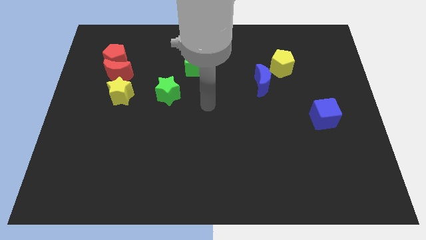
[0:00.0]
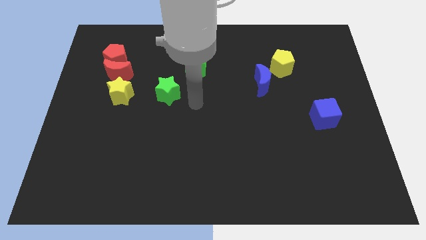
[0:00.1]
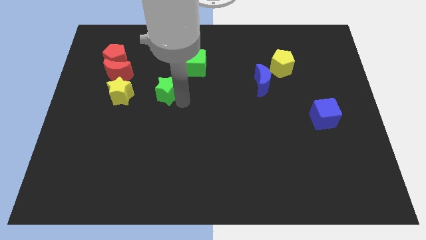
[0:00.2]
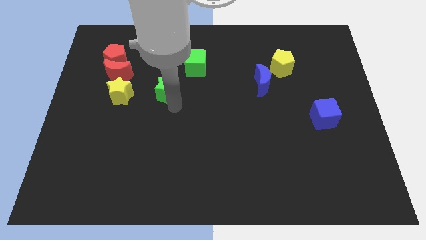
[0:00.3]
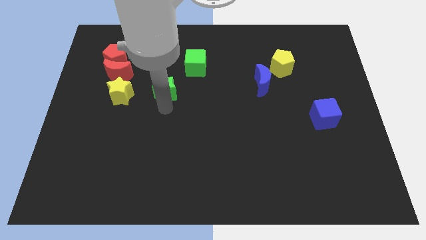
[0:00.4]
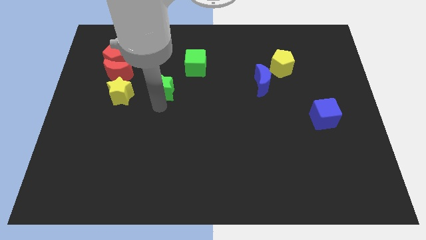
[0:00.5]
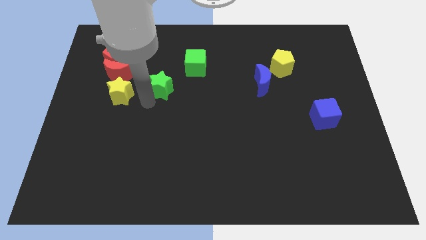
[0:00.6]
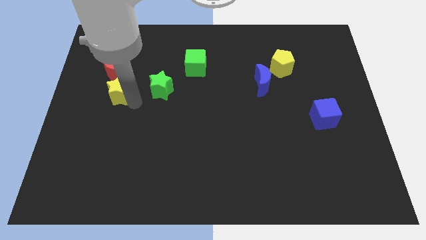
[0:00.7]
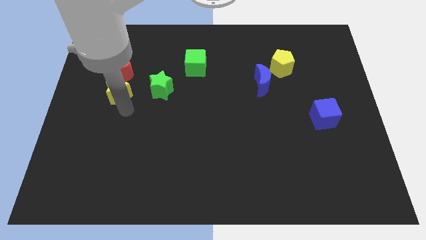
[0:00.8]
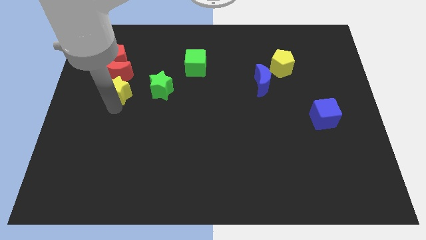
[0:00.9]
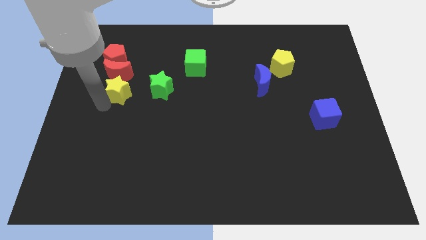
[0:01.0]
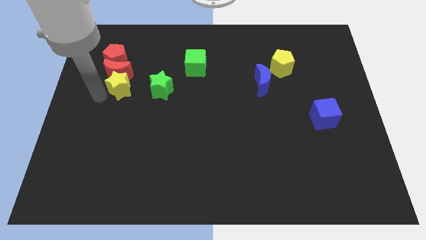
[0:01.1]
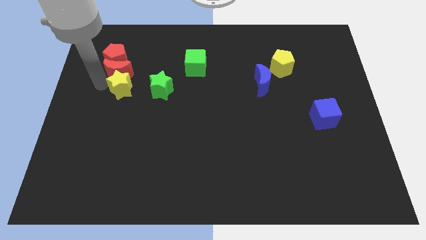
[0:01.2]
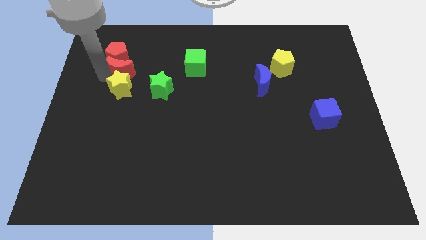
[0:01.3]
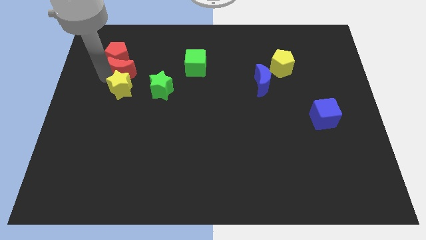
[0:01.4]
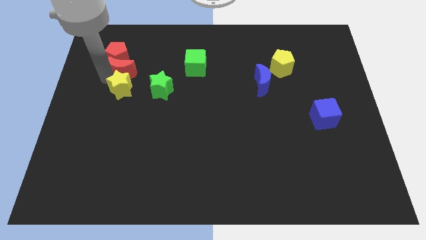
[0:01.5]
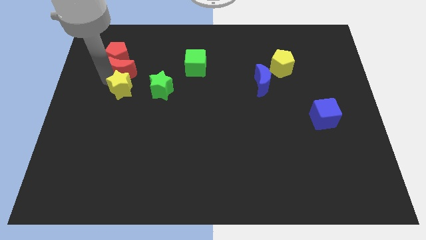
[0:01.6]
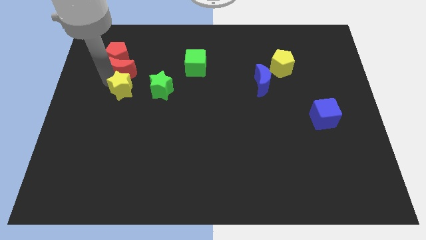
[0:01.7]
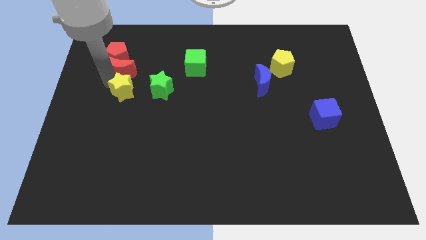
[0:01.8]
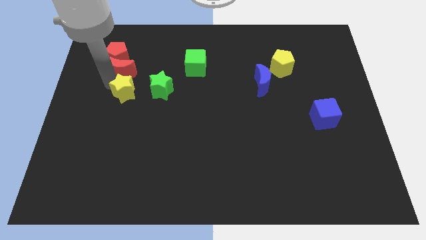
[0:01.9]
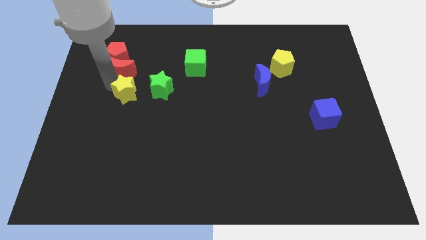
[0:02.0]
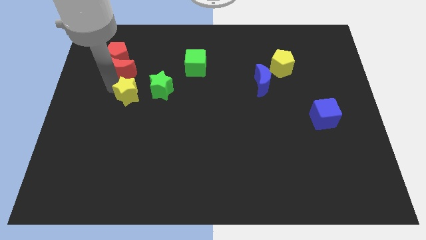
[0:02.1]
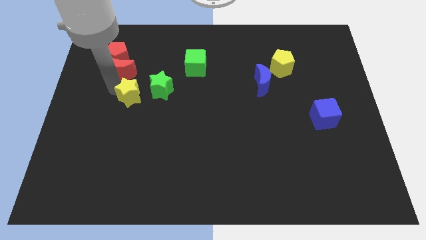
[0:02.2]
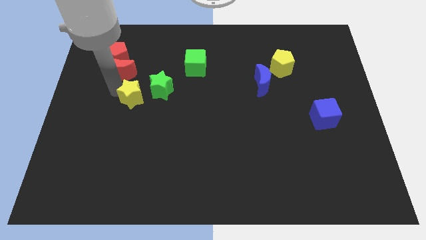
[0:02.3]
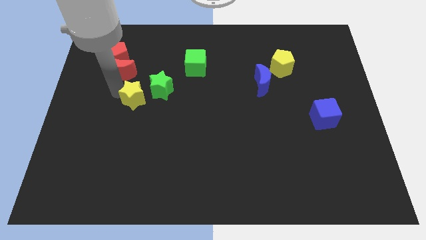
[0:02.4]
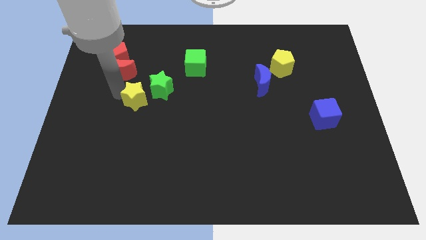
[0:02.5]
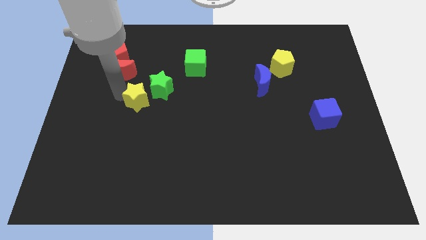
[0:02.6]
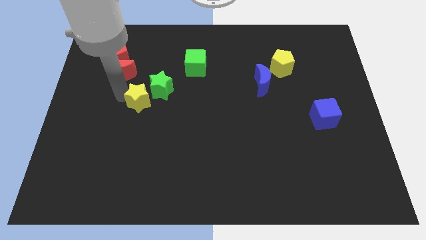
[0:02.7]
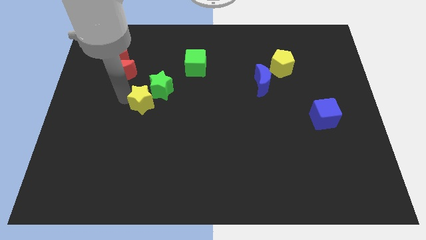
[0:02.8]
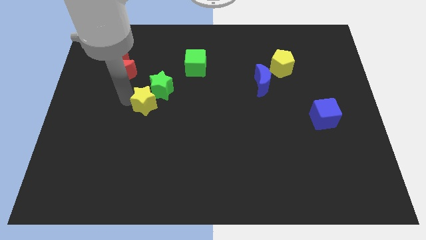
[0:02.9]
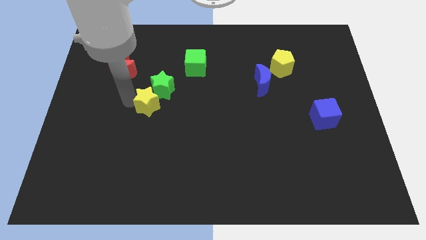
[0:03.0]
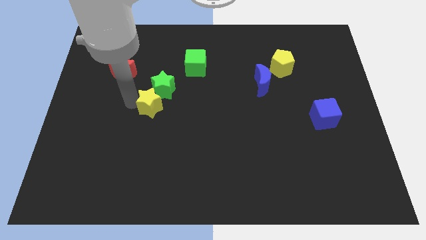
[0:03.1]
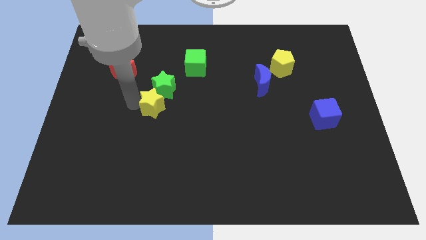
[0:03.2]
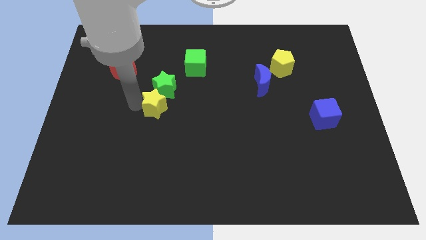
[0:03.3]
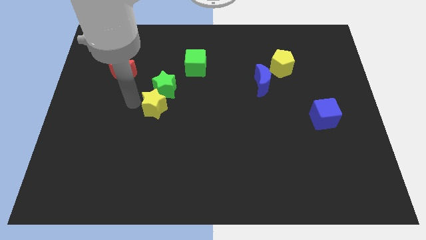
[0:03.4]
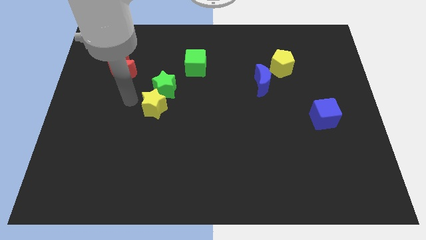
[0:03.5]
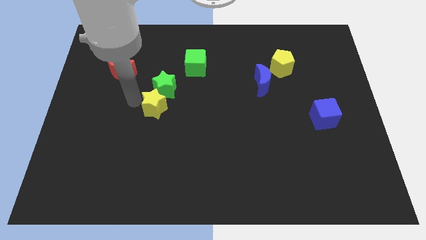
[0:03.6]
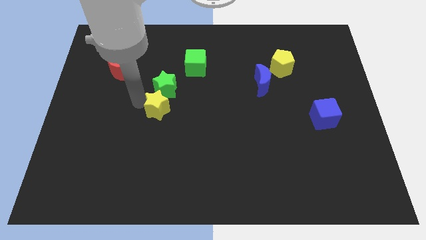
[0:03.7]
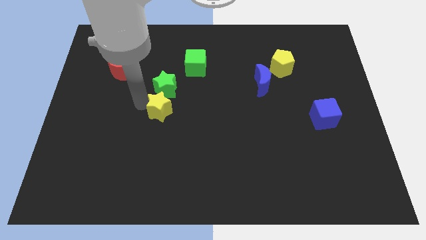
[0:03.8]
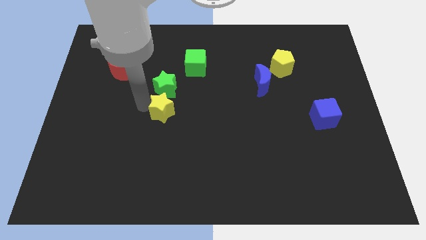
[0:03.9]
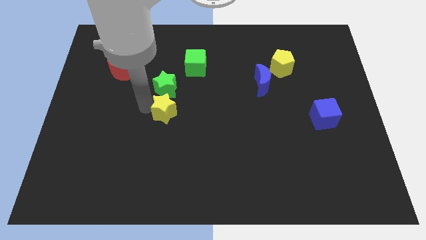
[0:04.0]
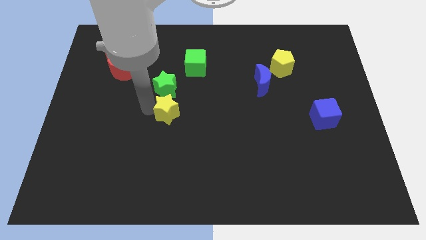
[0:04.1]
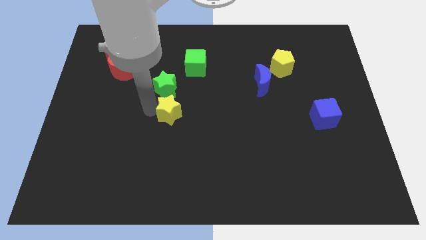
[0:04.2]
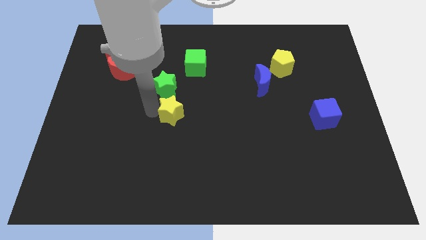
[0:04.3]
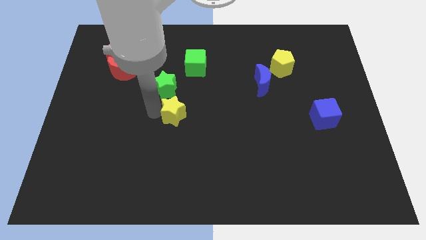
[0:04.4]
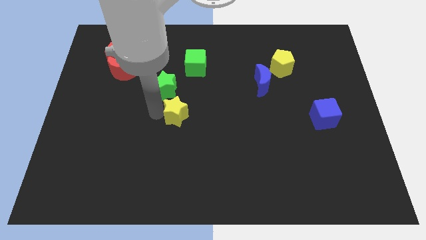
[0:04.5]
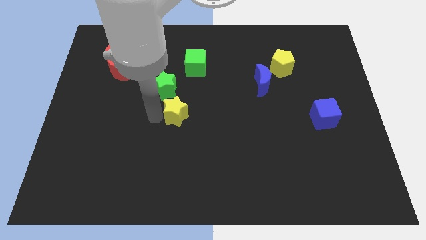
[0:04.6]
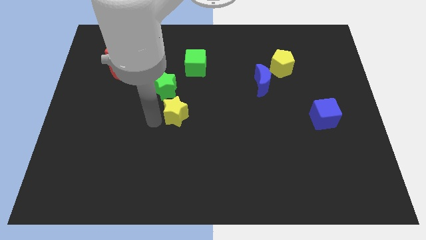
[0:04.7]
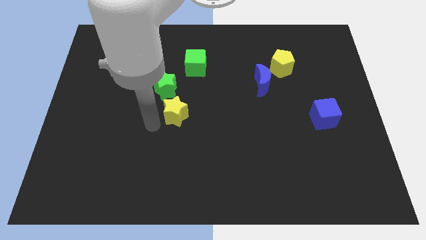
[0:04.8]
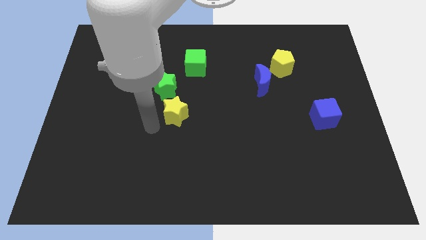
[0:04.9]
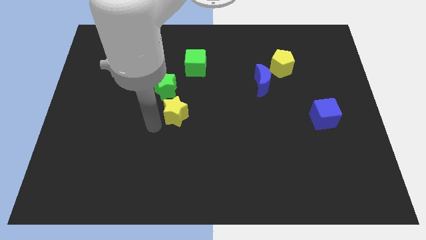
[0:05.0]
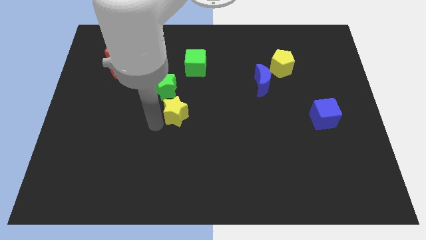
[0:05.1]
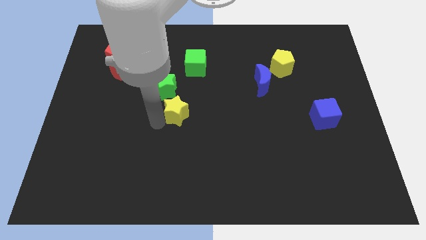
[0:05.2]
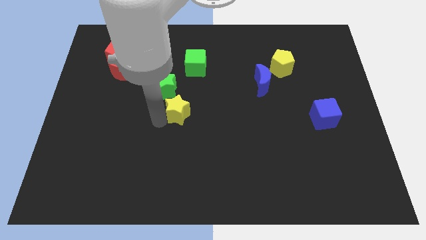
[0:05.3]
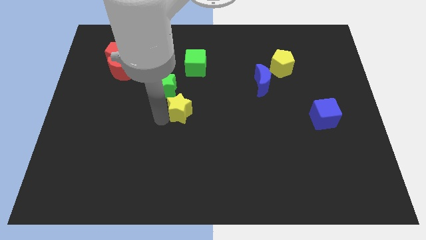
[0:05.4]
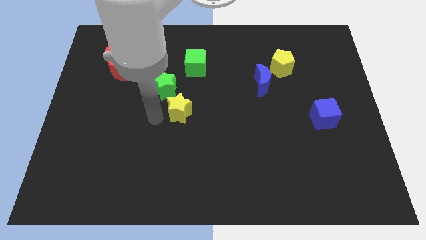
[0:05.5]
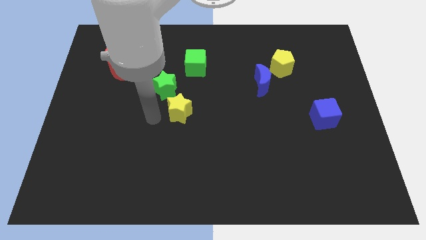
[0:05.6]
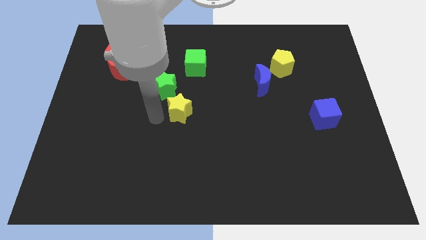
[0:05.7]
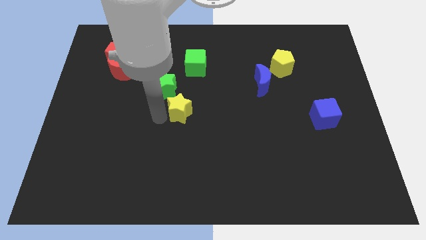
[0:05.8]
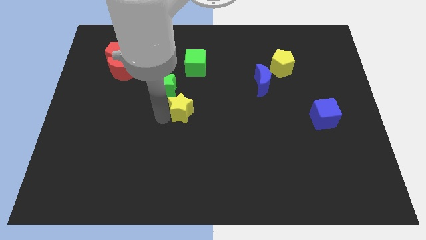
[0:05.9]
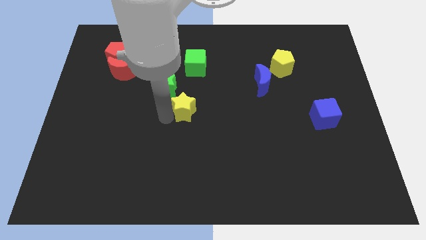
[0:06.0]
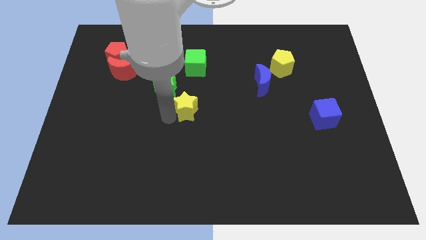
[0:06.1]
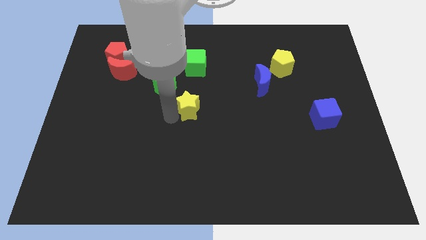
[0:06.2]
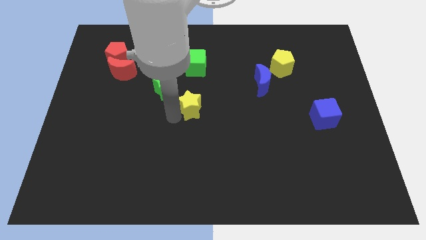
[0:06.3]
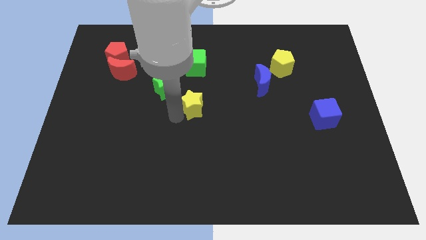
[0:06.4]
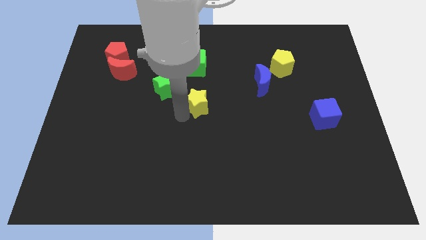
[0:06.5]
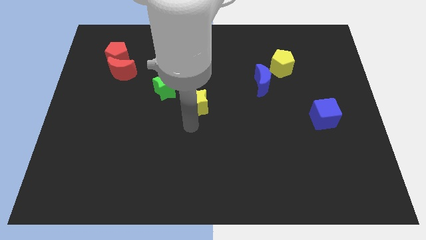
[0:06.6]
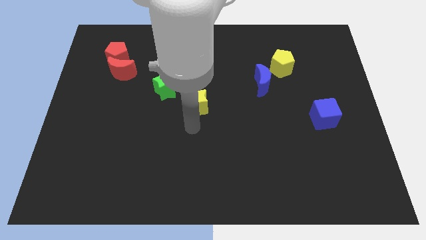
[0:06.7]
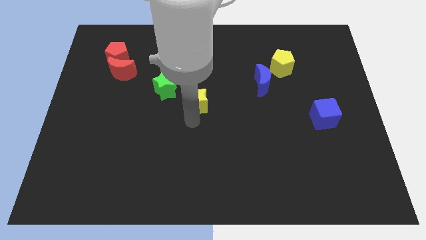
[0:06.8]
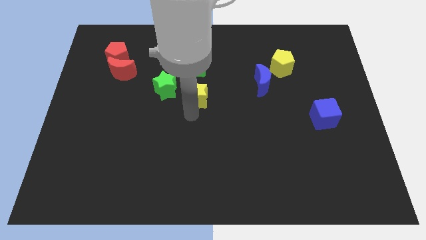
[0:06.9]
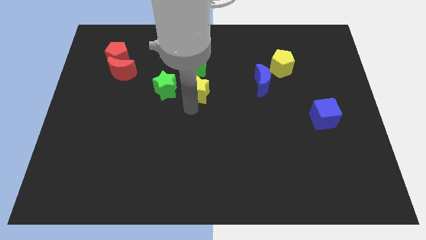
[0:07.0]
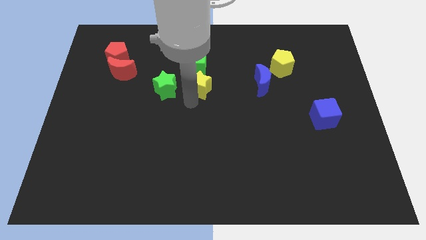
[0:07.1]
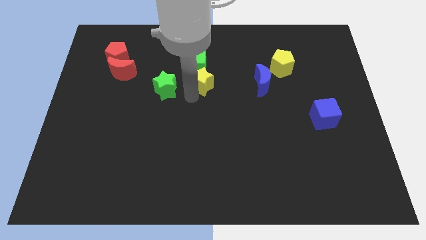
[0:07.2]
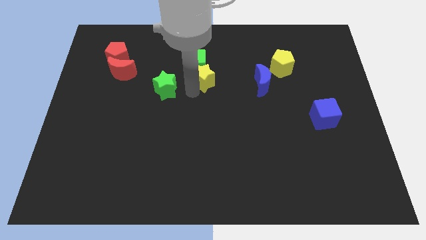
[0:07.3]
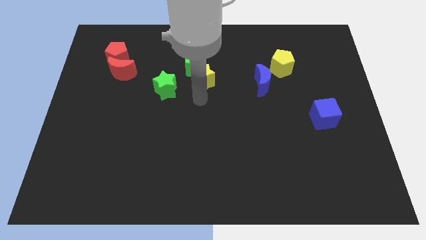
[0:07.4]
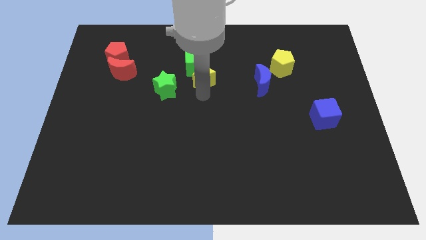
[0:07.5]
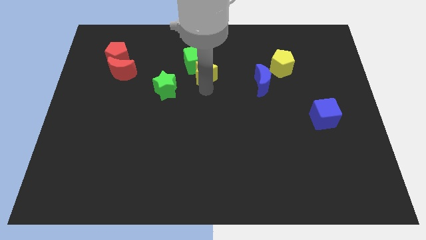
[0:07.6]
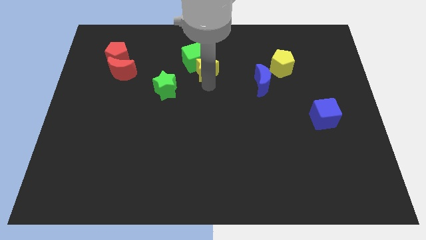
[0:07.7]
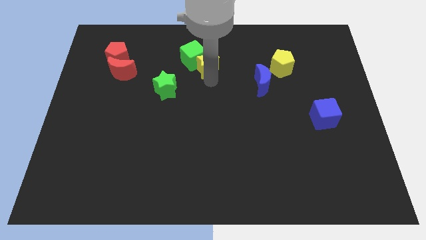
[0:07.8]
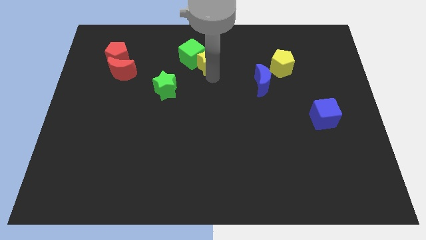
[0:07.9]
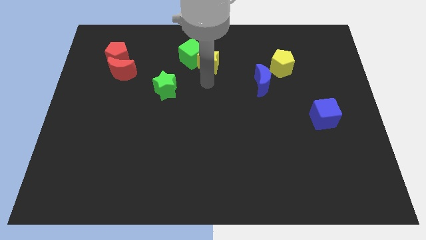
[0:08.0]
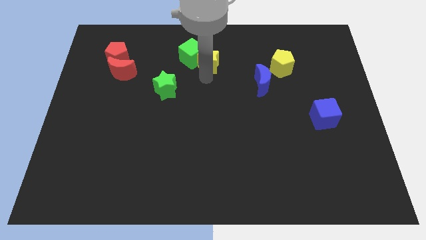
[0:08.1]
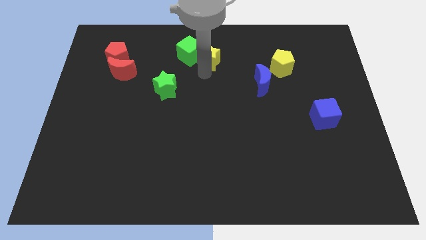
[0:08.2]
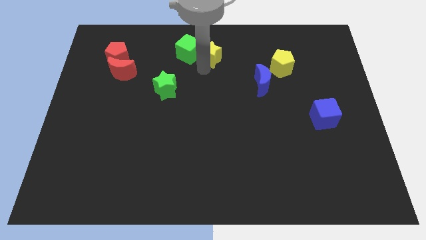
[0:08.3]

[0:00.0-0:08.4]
move the yellow star to the top side
